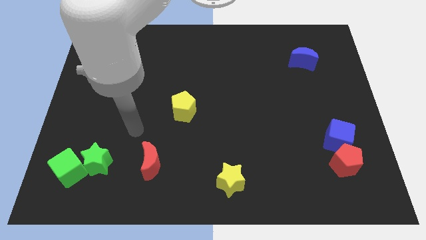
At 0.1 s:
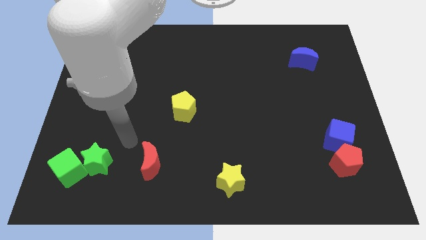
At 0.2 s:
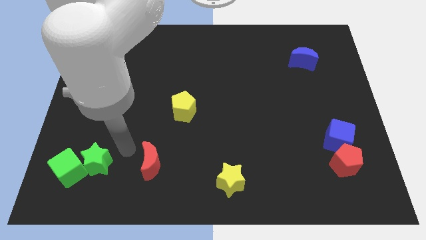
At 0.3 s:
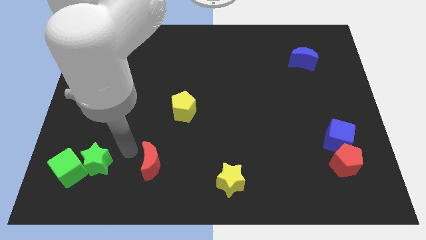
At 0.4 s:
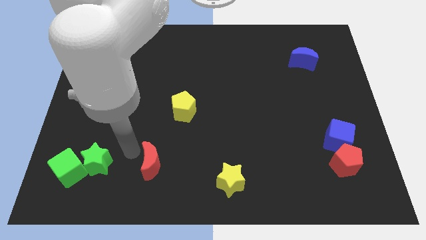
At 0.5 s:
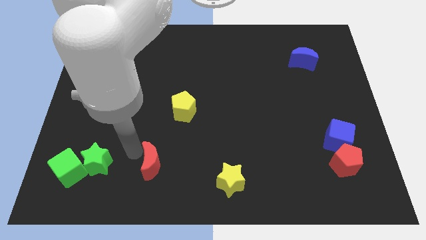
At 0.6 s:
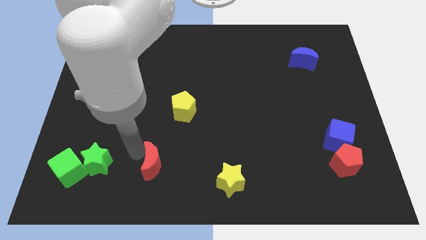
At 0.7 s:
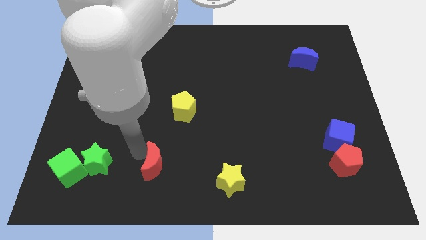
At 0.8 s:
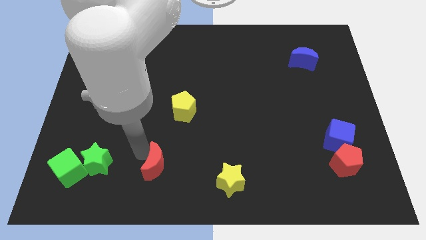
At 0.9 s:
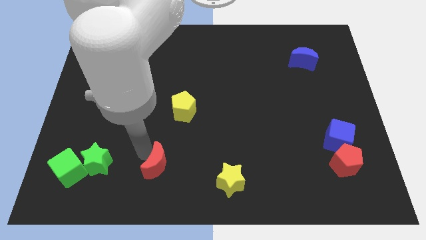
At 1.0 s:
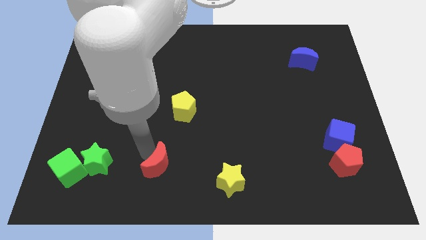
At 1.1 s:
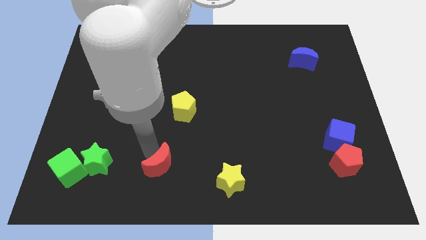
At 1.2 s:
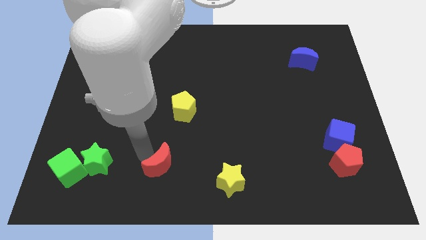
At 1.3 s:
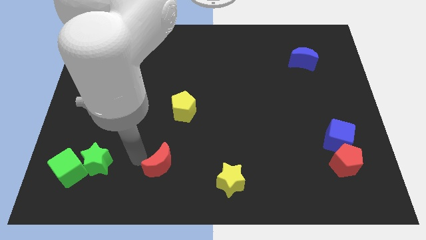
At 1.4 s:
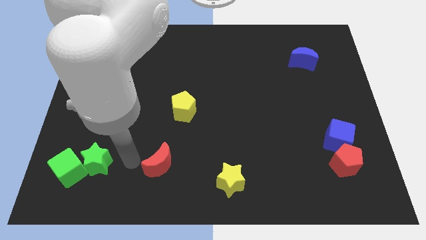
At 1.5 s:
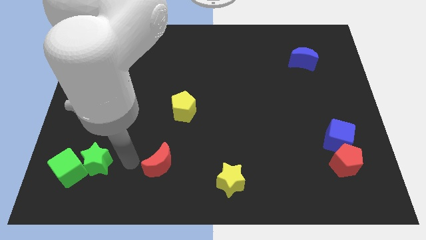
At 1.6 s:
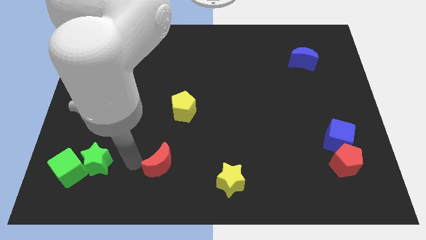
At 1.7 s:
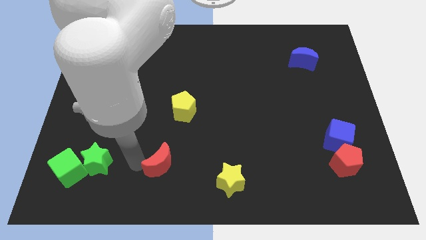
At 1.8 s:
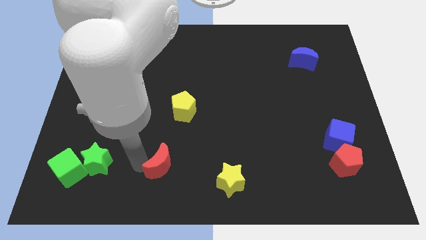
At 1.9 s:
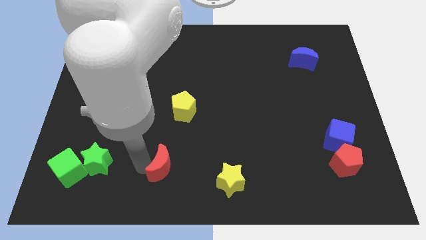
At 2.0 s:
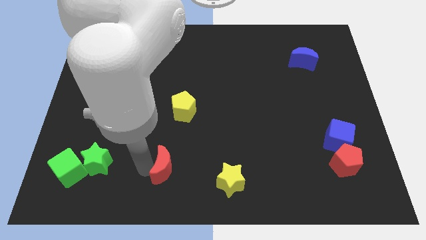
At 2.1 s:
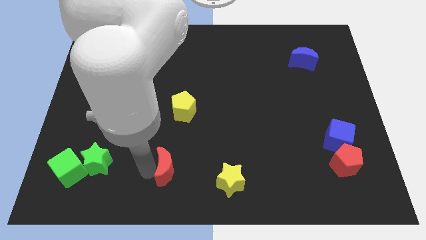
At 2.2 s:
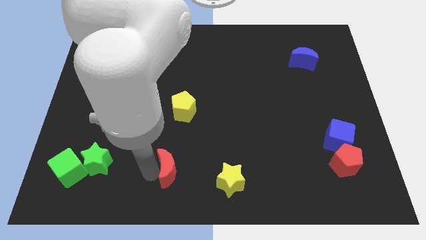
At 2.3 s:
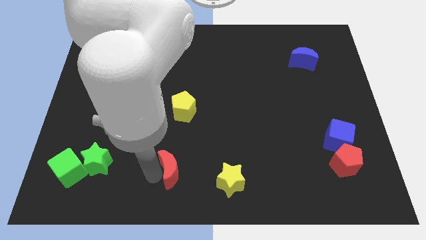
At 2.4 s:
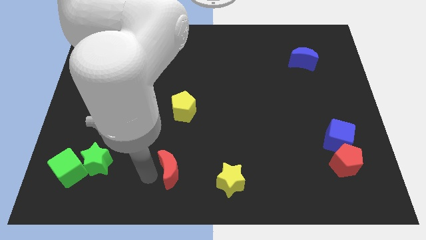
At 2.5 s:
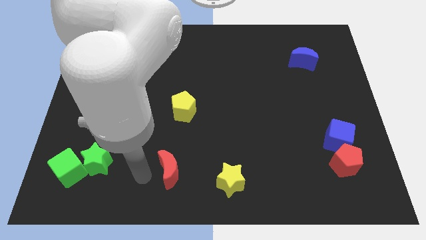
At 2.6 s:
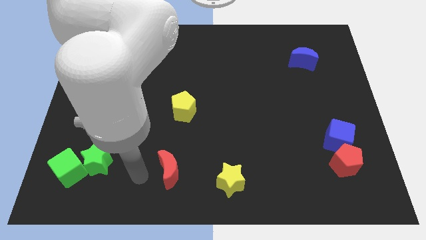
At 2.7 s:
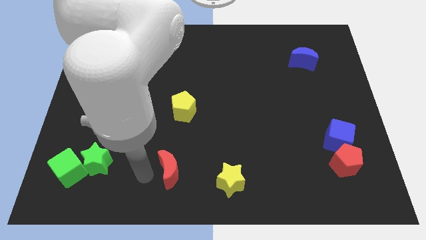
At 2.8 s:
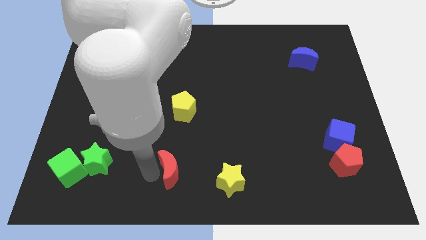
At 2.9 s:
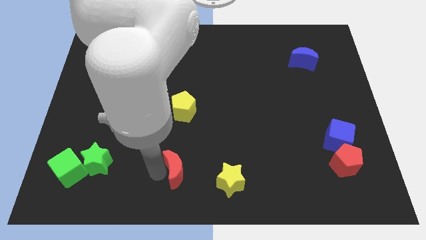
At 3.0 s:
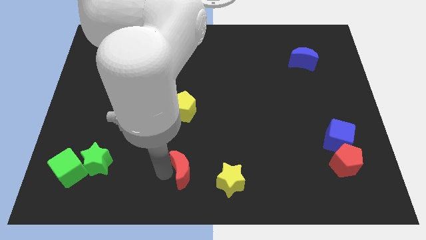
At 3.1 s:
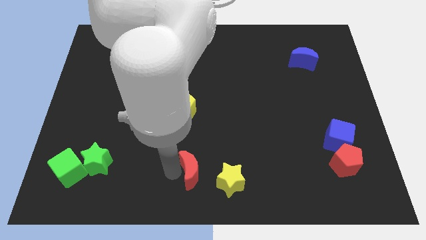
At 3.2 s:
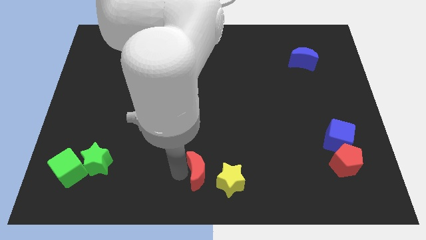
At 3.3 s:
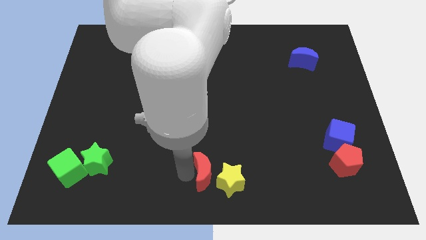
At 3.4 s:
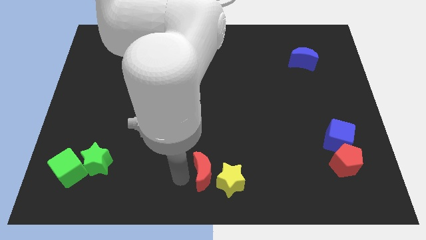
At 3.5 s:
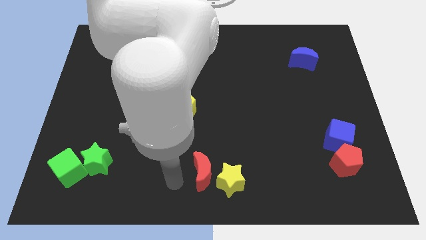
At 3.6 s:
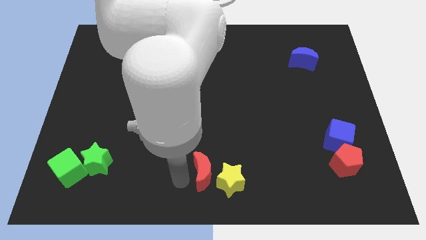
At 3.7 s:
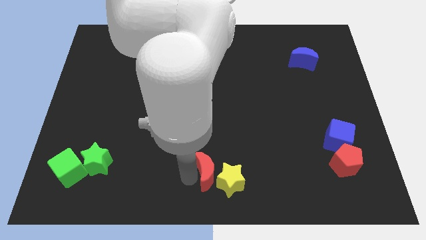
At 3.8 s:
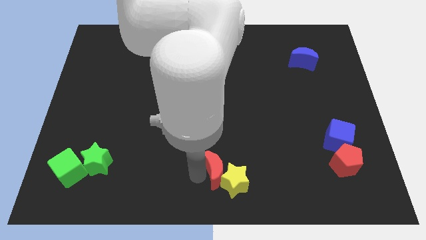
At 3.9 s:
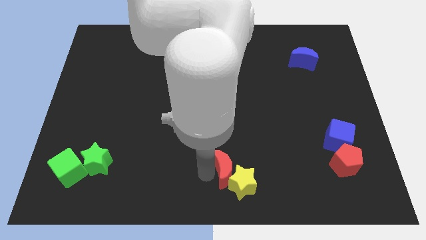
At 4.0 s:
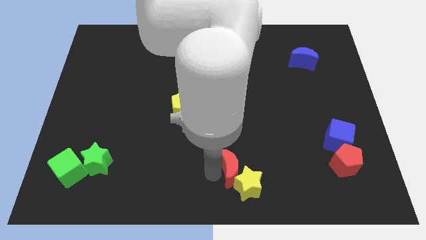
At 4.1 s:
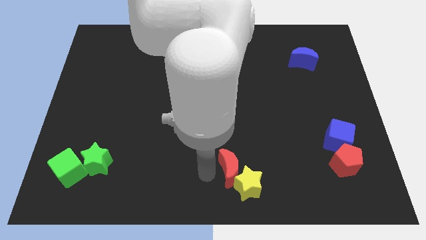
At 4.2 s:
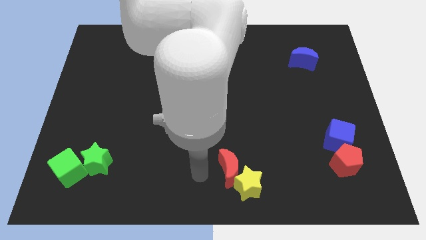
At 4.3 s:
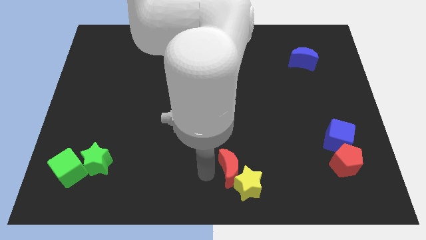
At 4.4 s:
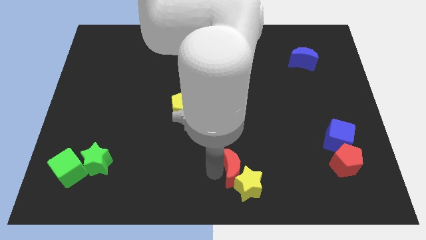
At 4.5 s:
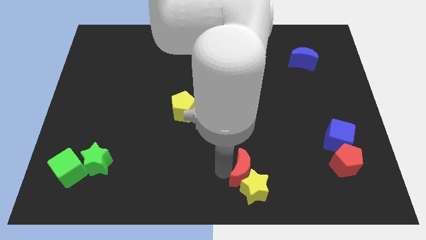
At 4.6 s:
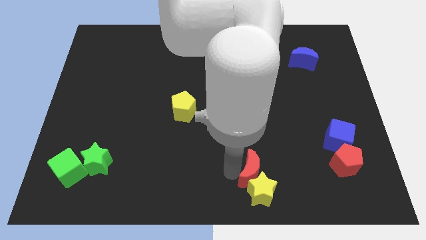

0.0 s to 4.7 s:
push the red moon to the right

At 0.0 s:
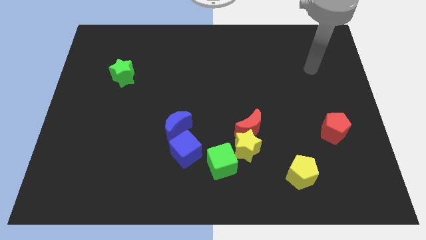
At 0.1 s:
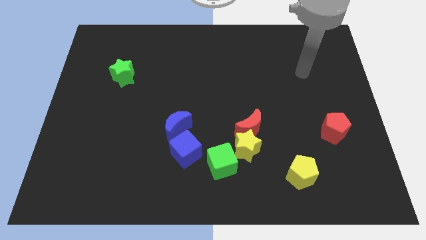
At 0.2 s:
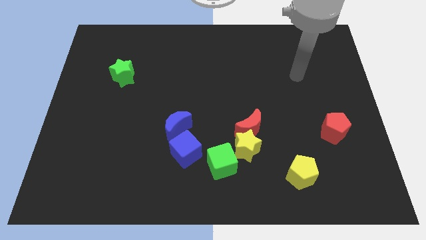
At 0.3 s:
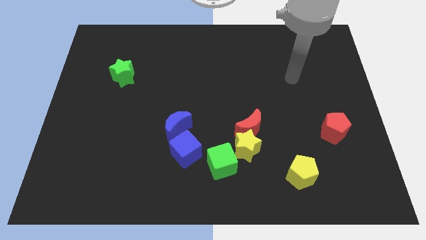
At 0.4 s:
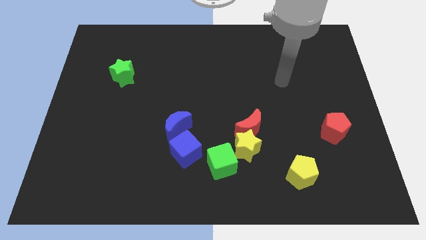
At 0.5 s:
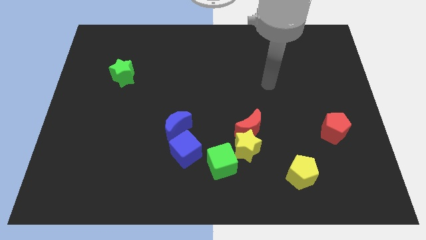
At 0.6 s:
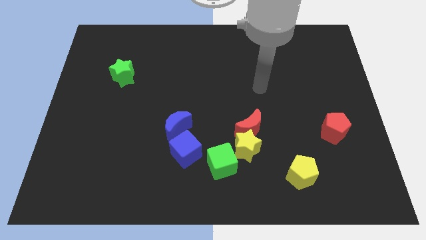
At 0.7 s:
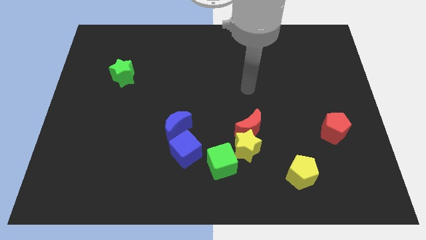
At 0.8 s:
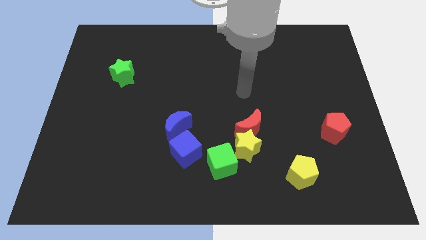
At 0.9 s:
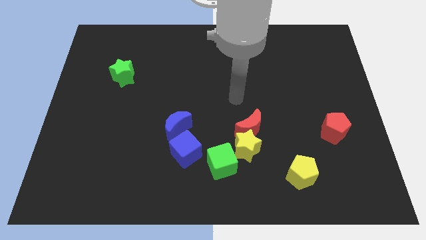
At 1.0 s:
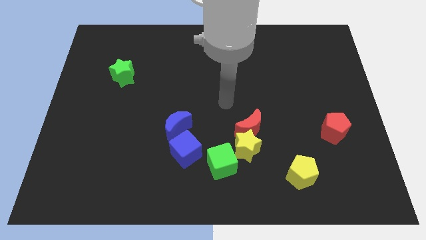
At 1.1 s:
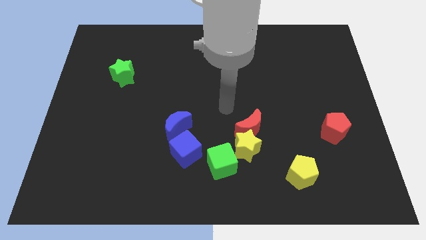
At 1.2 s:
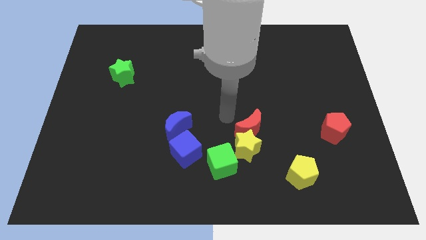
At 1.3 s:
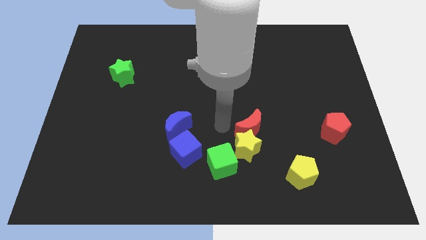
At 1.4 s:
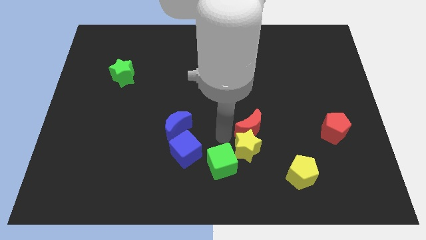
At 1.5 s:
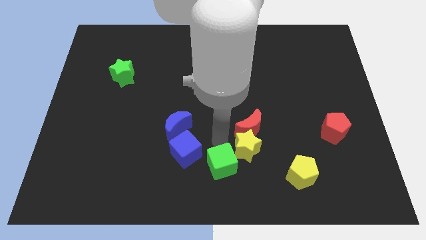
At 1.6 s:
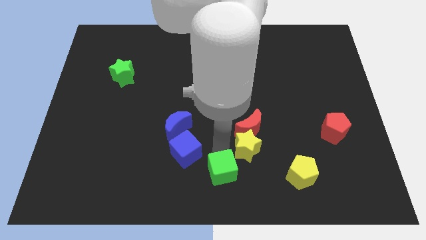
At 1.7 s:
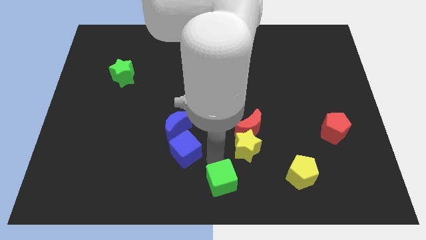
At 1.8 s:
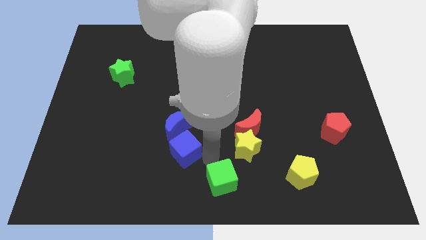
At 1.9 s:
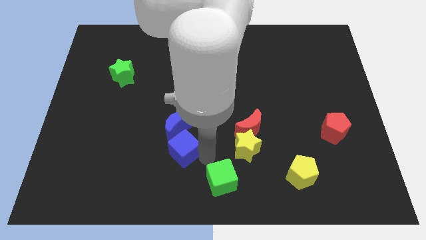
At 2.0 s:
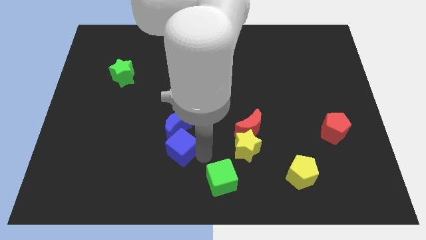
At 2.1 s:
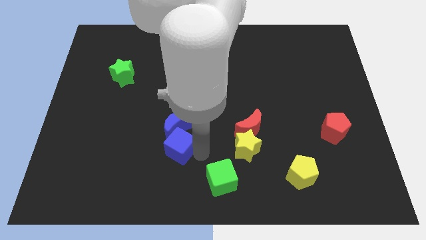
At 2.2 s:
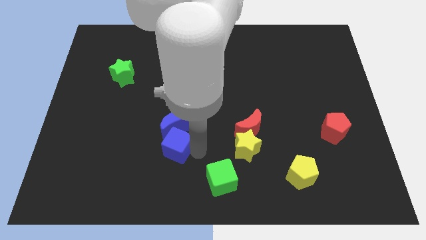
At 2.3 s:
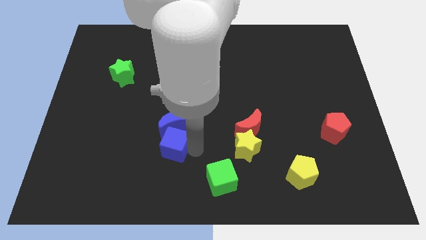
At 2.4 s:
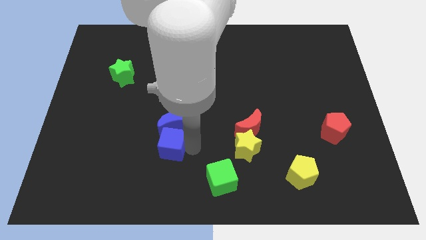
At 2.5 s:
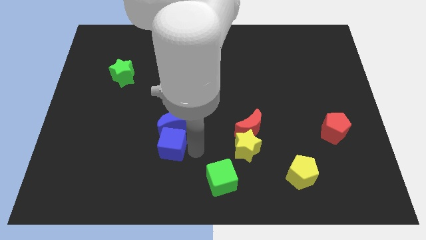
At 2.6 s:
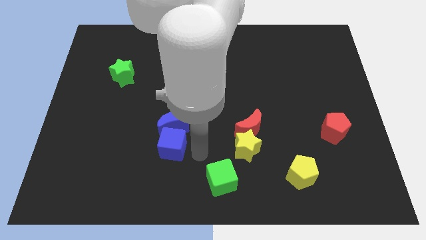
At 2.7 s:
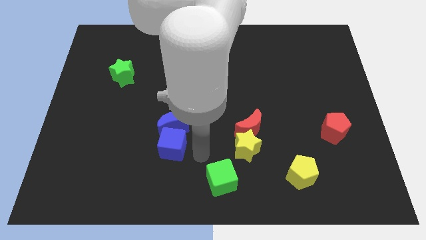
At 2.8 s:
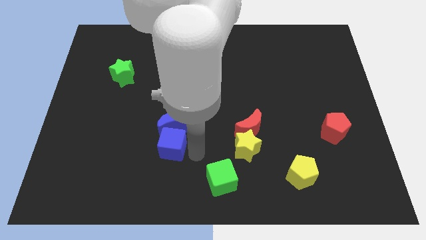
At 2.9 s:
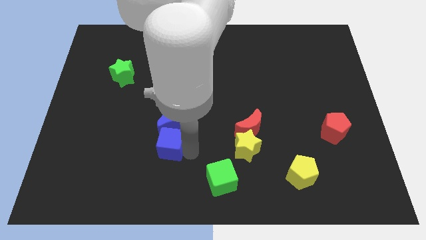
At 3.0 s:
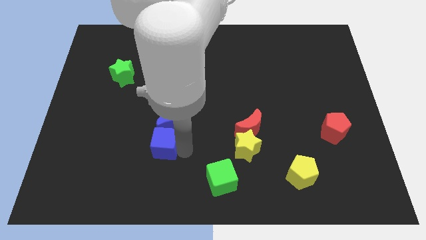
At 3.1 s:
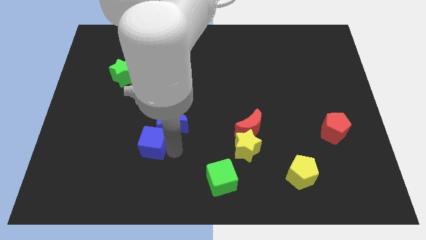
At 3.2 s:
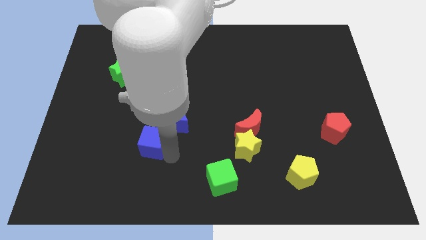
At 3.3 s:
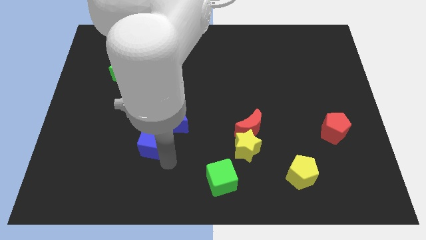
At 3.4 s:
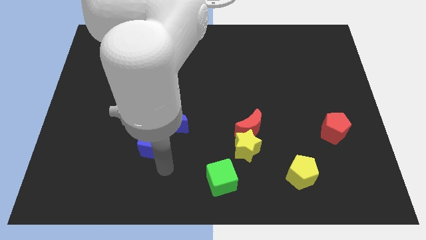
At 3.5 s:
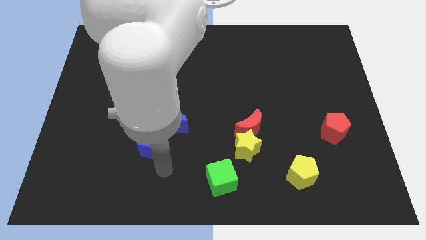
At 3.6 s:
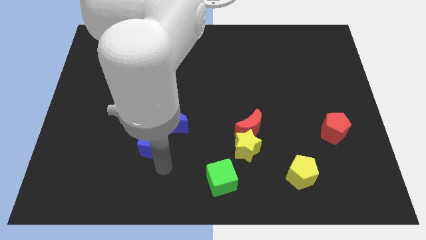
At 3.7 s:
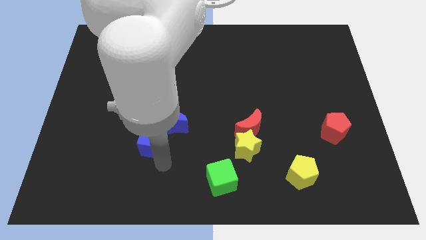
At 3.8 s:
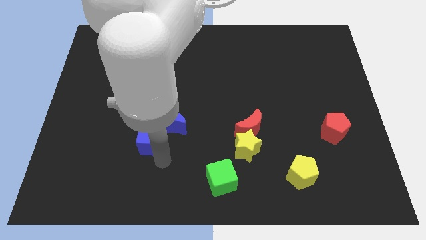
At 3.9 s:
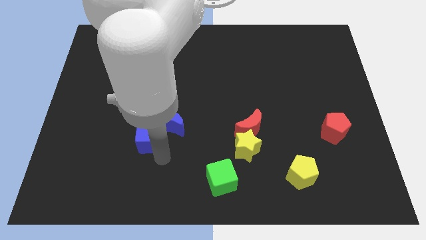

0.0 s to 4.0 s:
slightly push the blue cube up and then left
